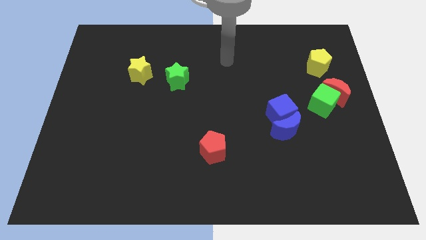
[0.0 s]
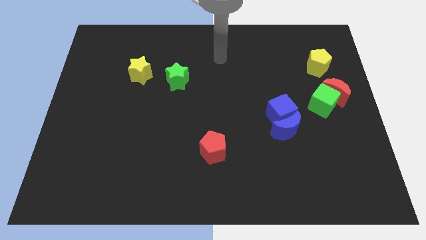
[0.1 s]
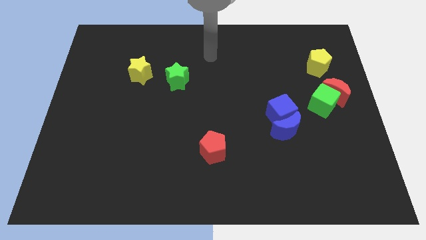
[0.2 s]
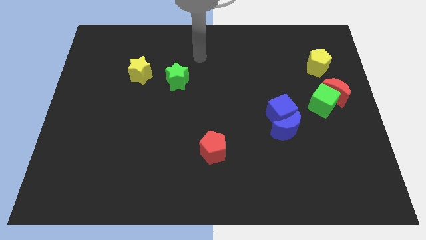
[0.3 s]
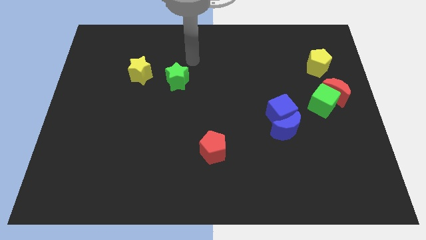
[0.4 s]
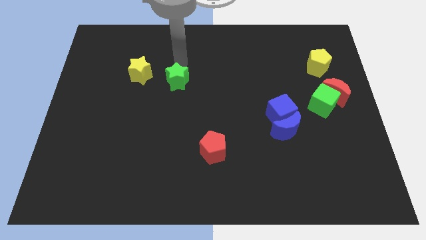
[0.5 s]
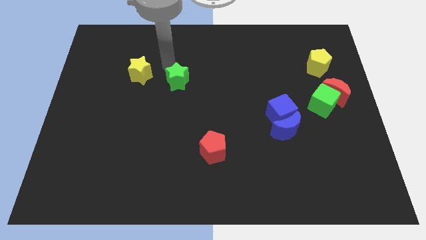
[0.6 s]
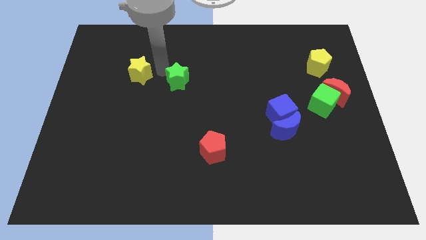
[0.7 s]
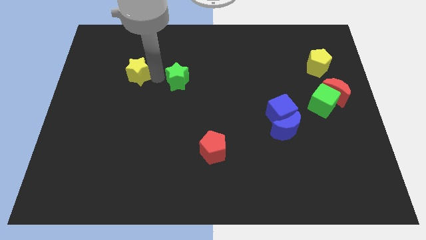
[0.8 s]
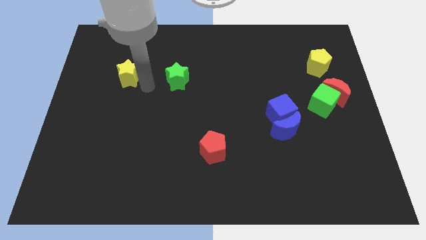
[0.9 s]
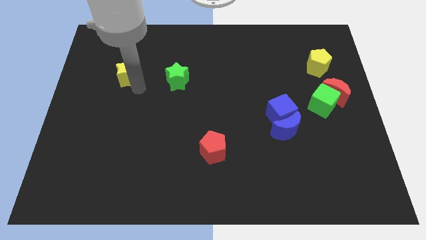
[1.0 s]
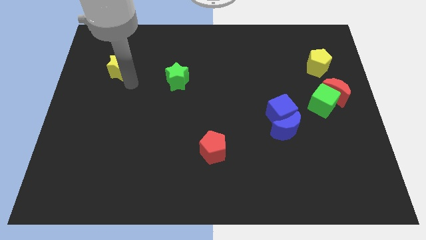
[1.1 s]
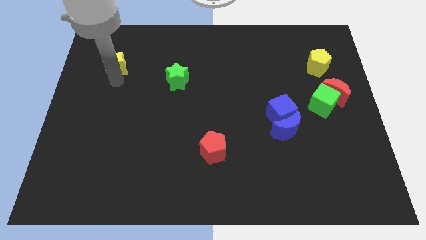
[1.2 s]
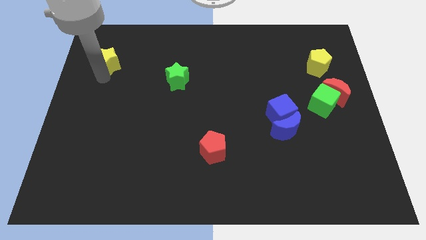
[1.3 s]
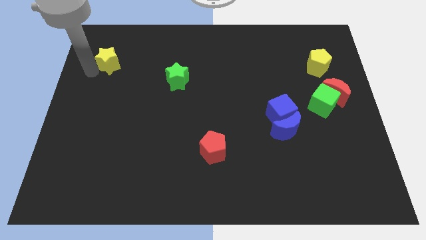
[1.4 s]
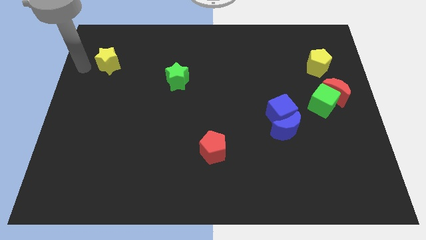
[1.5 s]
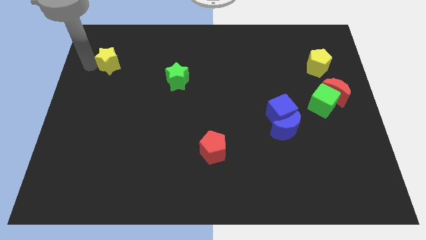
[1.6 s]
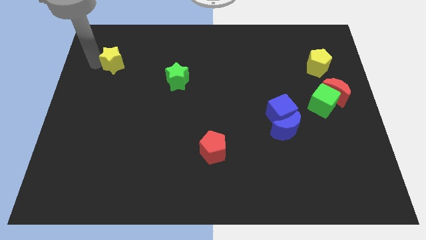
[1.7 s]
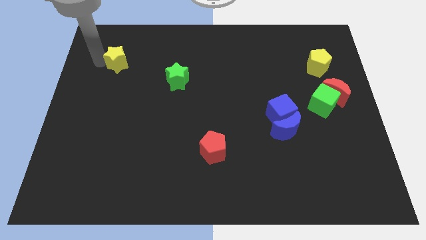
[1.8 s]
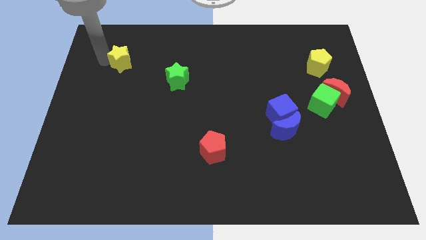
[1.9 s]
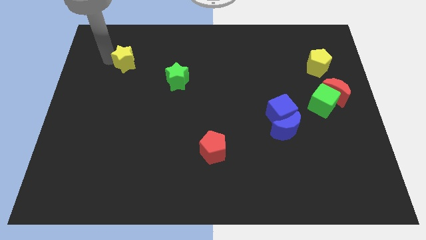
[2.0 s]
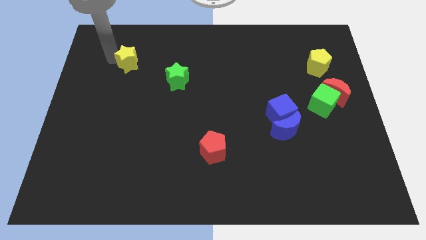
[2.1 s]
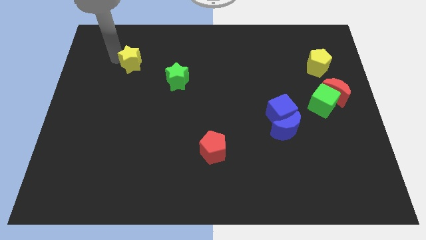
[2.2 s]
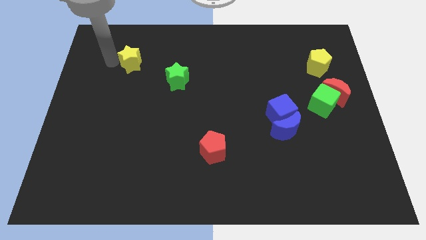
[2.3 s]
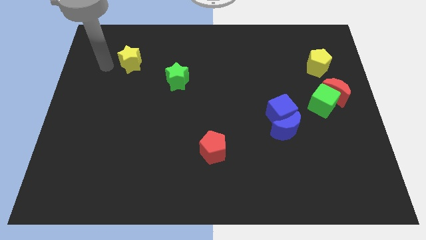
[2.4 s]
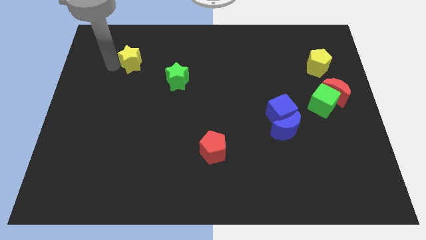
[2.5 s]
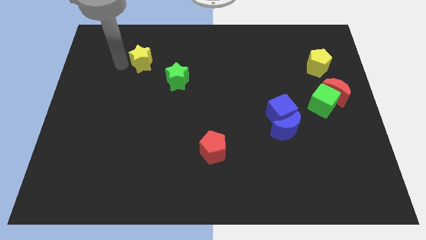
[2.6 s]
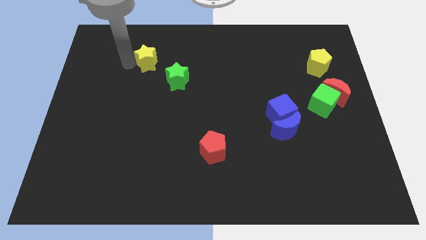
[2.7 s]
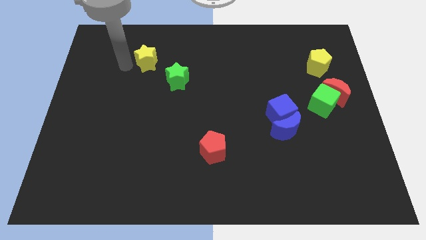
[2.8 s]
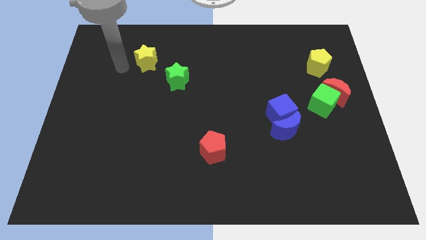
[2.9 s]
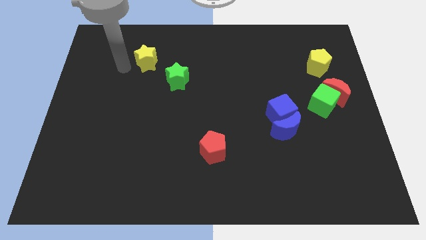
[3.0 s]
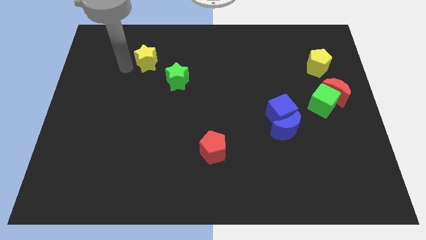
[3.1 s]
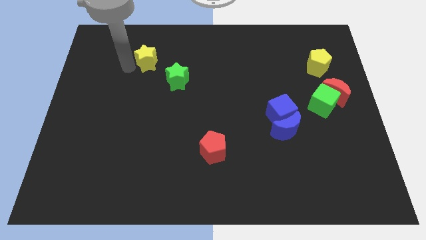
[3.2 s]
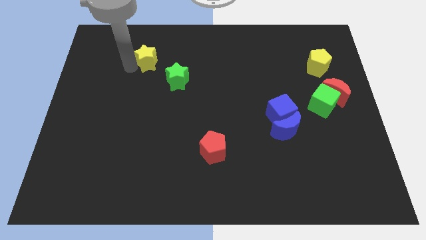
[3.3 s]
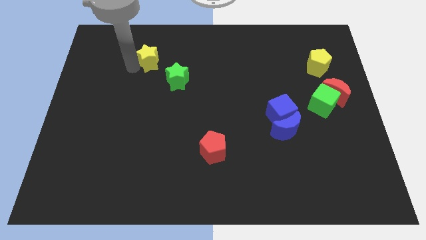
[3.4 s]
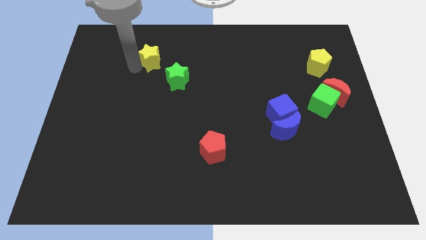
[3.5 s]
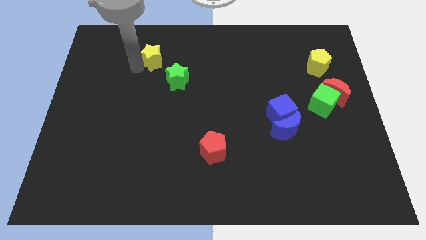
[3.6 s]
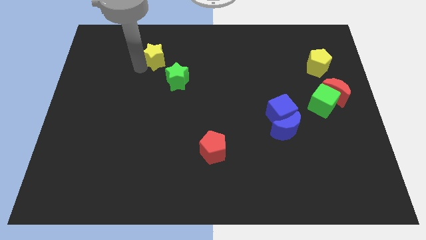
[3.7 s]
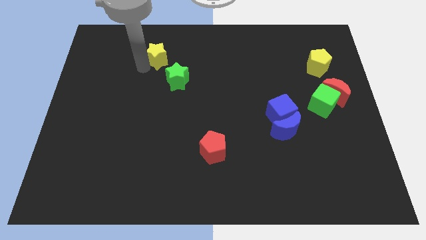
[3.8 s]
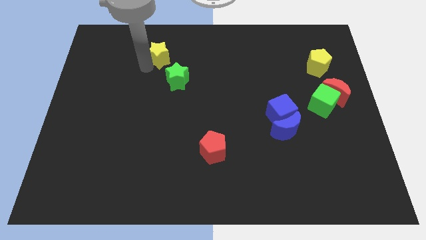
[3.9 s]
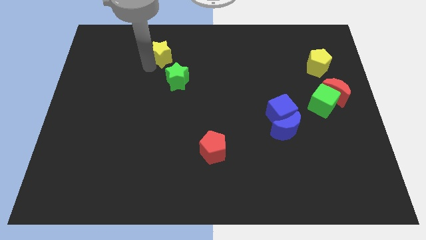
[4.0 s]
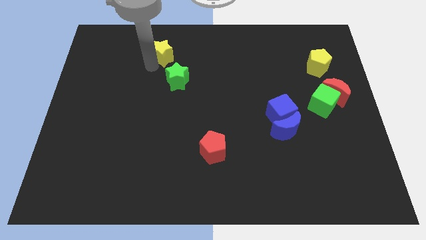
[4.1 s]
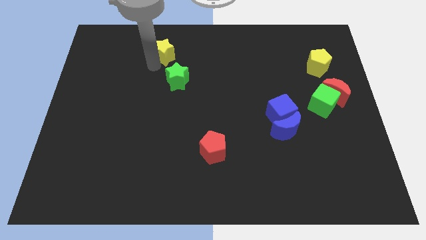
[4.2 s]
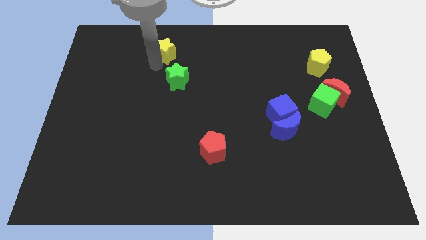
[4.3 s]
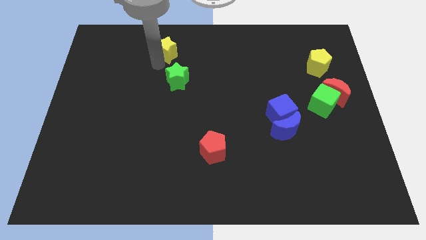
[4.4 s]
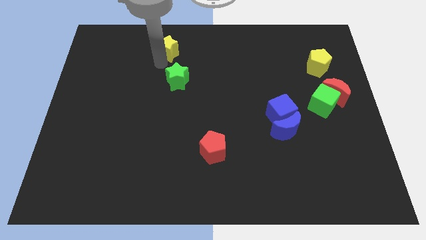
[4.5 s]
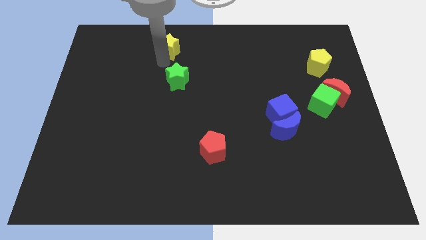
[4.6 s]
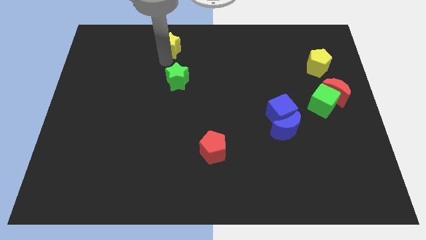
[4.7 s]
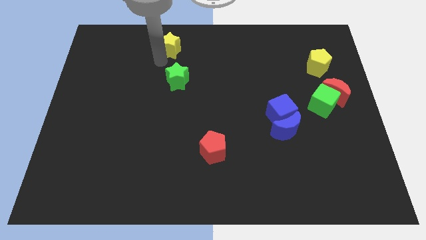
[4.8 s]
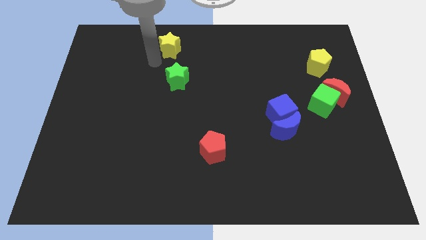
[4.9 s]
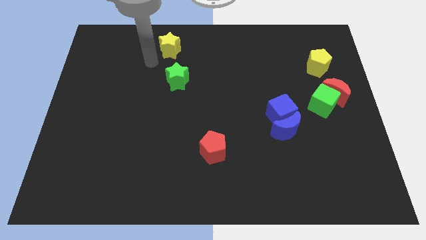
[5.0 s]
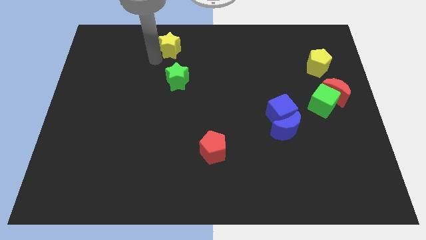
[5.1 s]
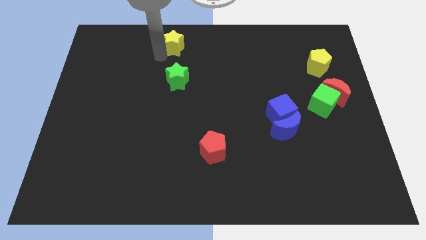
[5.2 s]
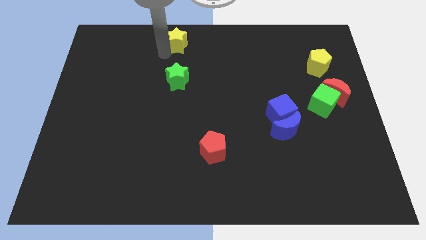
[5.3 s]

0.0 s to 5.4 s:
slide the yellow star to the towards your base

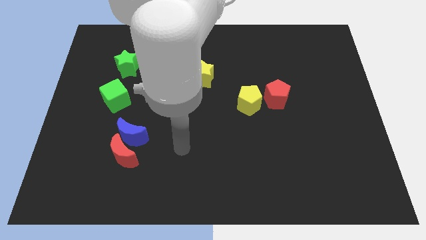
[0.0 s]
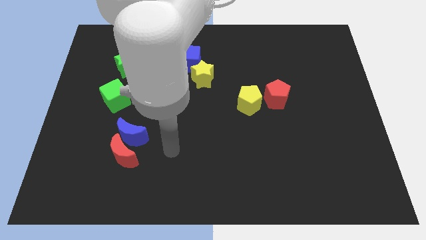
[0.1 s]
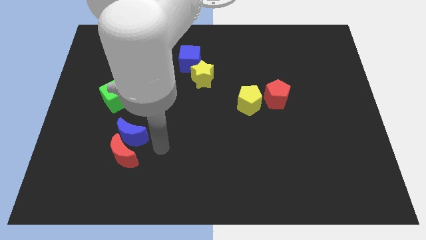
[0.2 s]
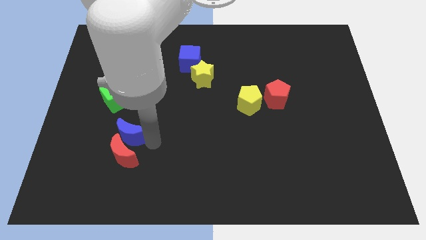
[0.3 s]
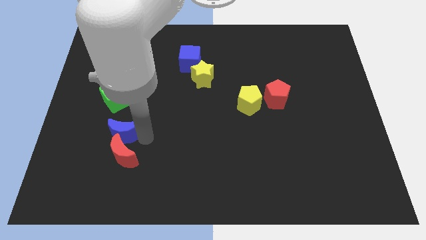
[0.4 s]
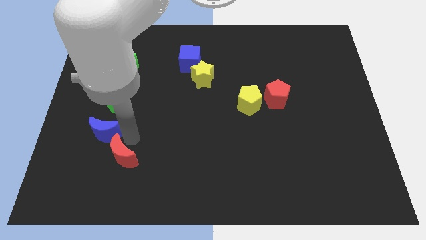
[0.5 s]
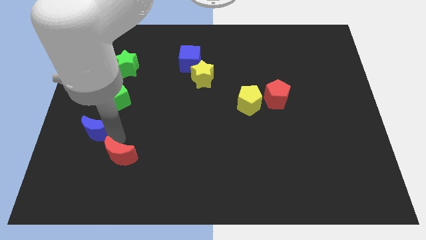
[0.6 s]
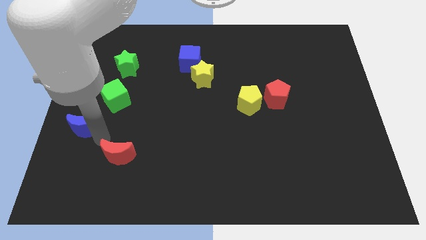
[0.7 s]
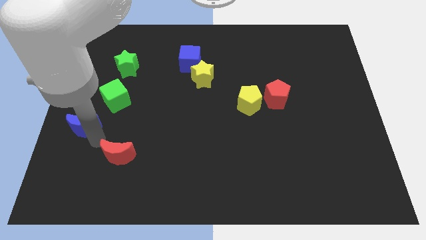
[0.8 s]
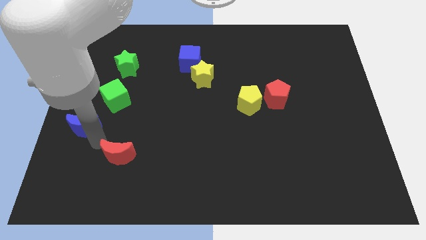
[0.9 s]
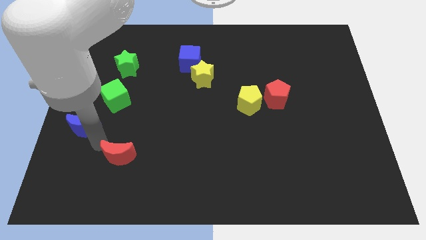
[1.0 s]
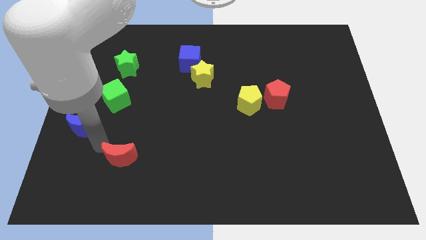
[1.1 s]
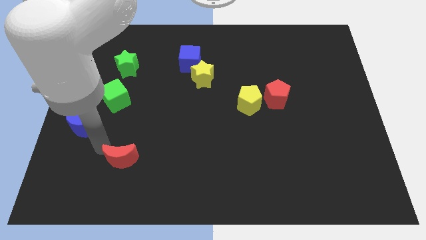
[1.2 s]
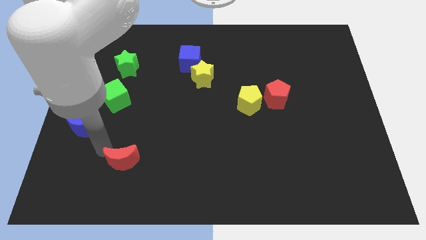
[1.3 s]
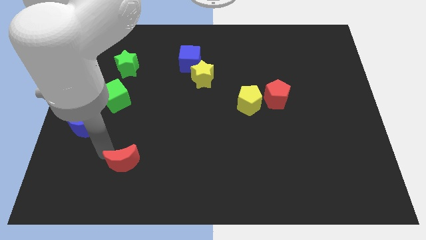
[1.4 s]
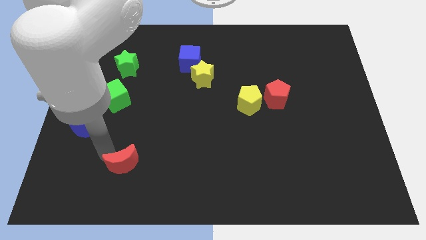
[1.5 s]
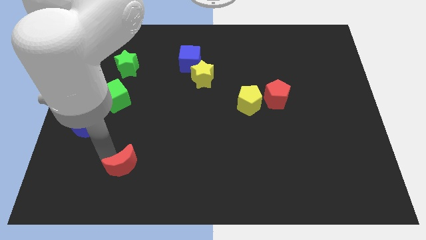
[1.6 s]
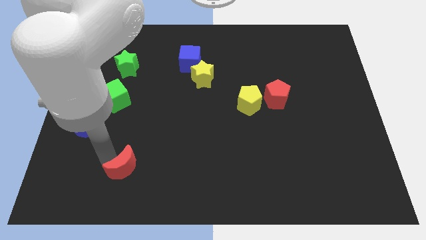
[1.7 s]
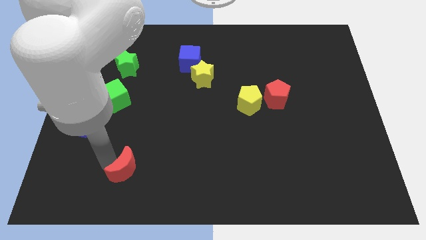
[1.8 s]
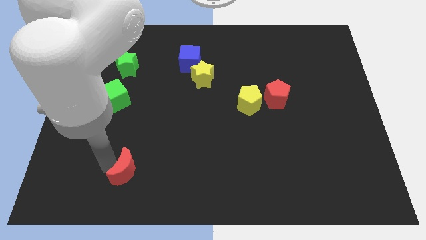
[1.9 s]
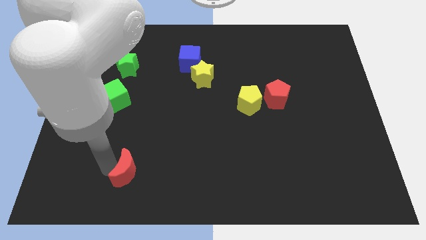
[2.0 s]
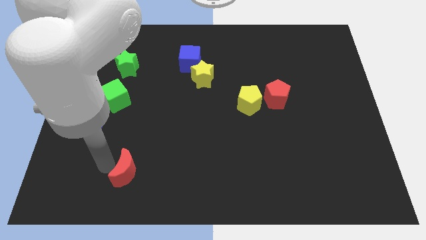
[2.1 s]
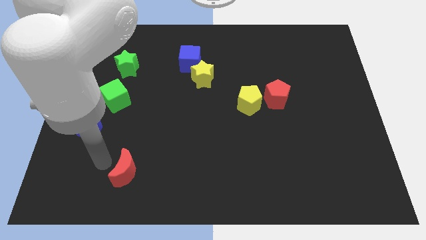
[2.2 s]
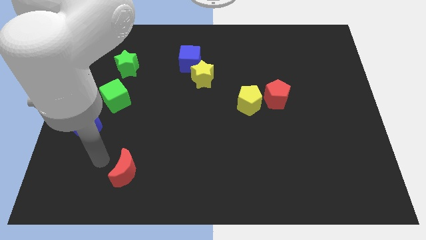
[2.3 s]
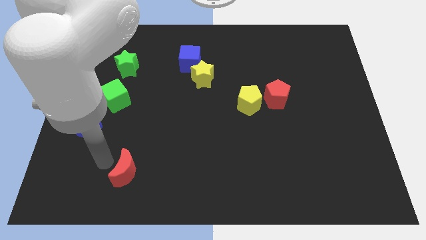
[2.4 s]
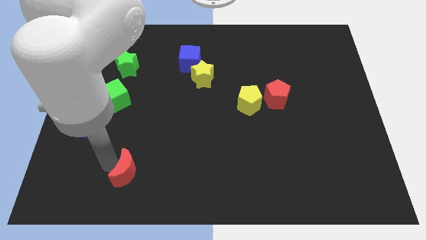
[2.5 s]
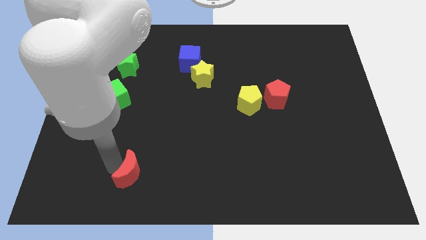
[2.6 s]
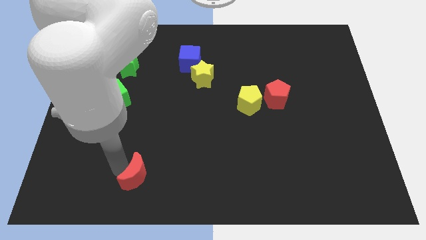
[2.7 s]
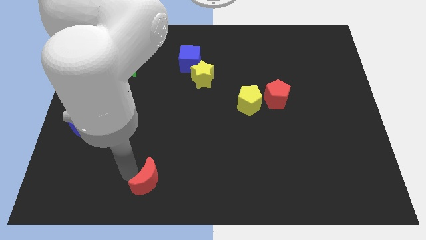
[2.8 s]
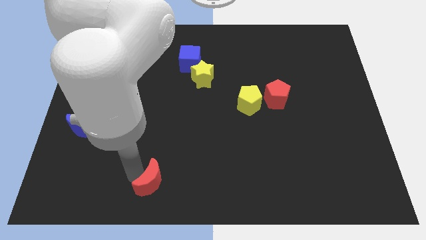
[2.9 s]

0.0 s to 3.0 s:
push the red moon to the bottom
